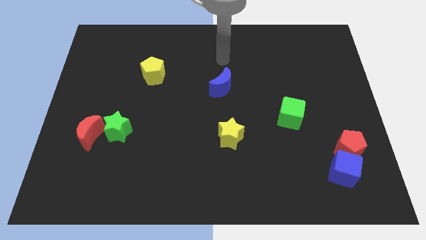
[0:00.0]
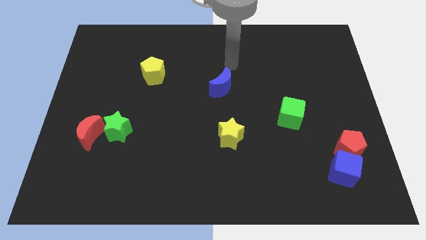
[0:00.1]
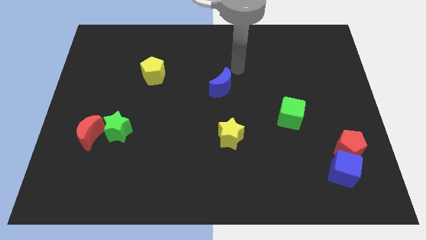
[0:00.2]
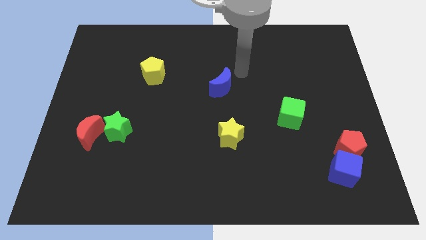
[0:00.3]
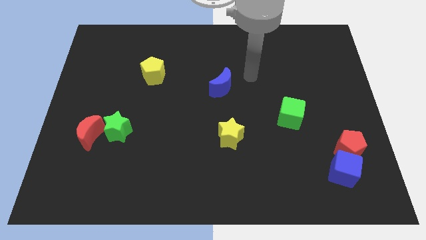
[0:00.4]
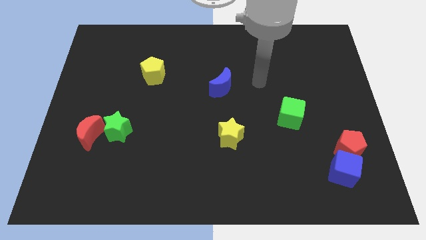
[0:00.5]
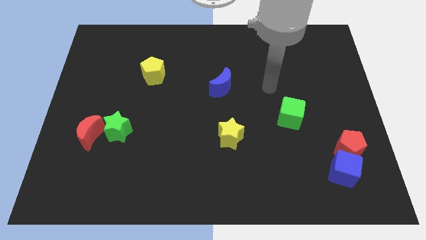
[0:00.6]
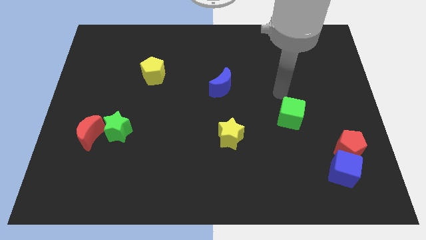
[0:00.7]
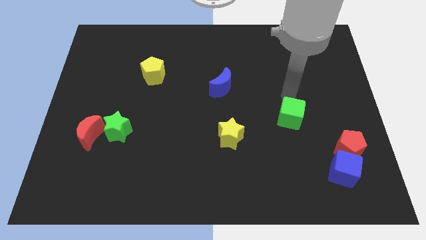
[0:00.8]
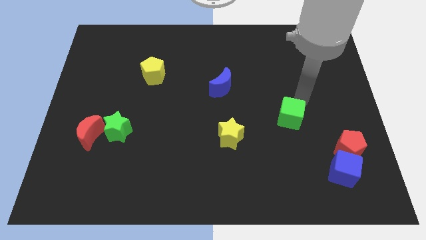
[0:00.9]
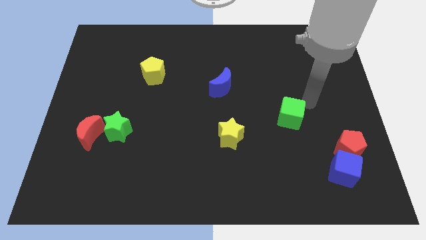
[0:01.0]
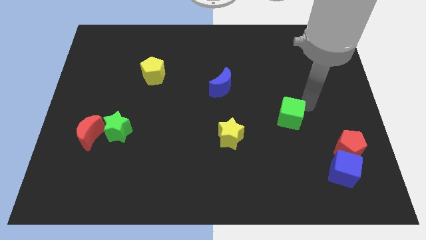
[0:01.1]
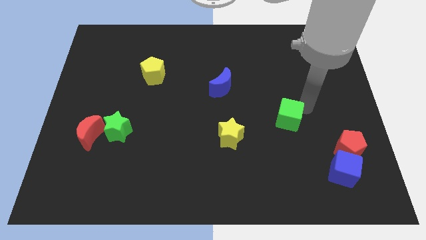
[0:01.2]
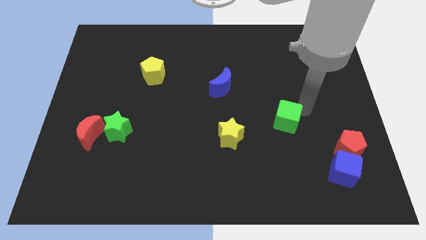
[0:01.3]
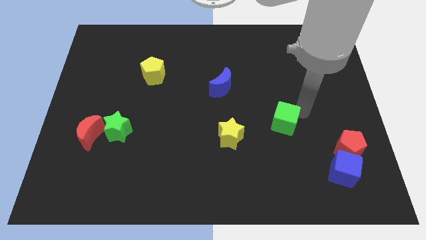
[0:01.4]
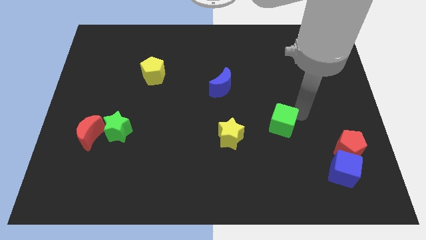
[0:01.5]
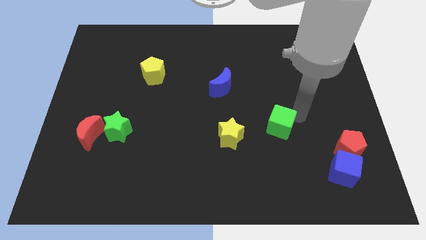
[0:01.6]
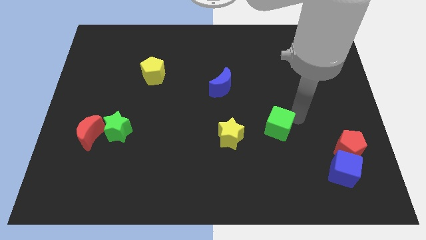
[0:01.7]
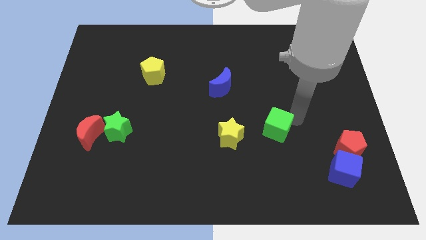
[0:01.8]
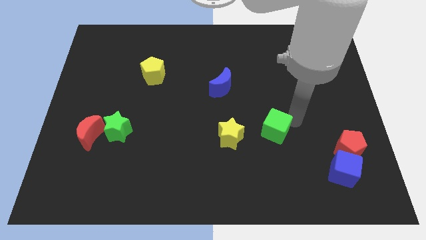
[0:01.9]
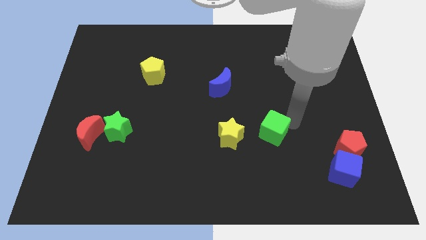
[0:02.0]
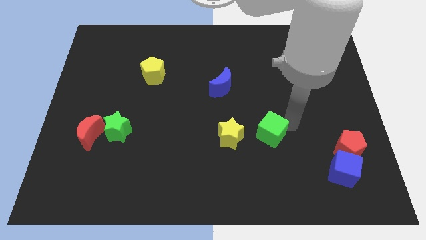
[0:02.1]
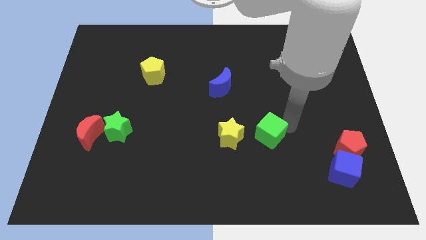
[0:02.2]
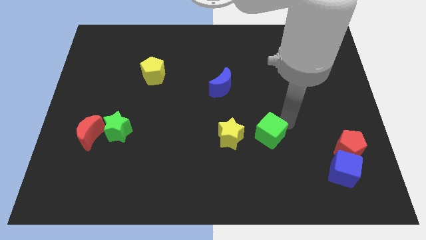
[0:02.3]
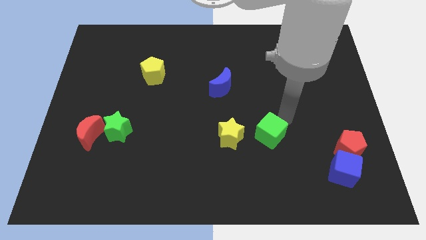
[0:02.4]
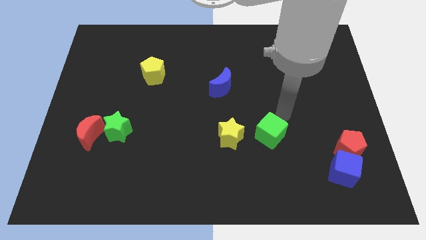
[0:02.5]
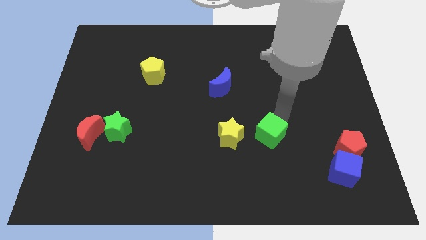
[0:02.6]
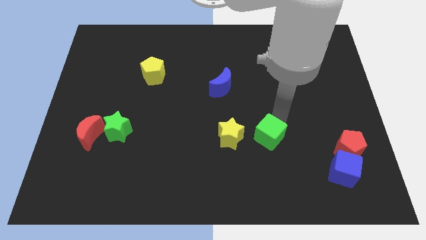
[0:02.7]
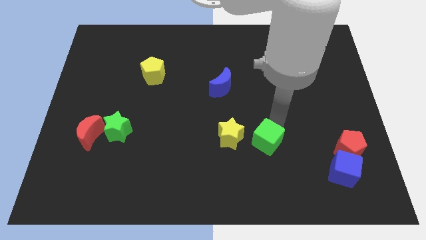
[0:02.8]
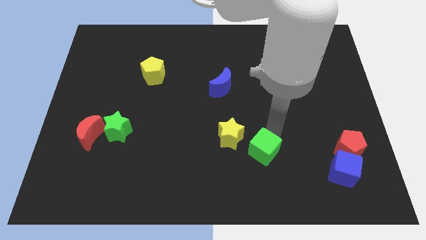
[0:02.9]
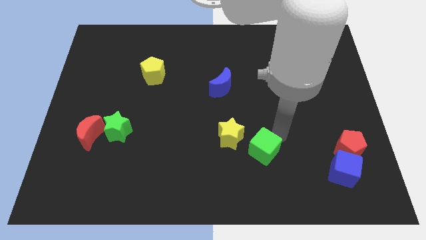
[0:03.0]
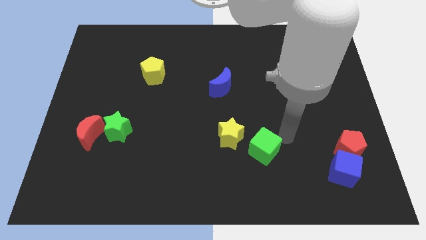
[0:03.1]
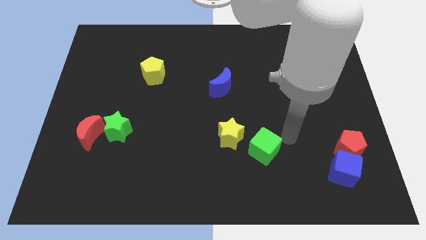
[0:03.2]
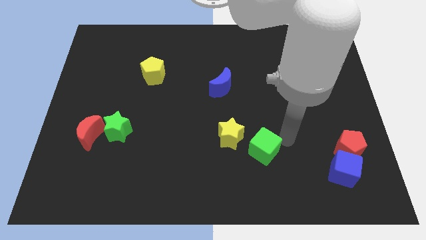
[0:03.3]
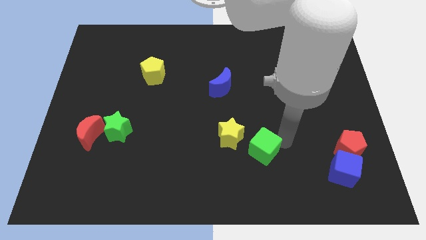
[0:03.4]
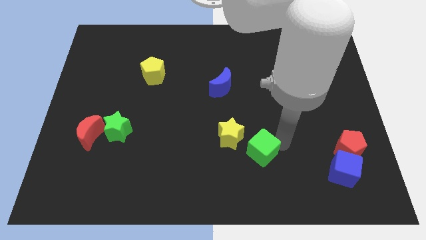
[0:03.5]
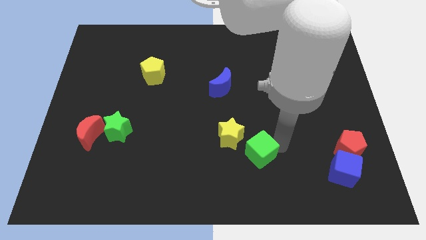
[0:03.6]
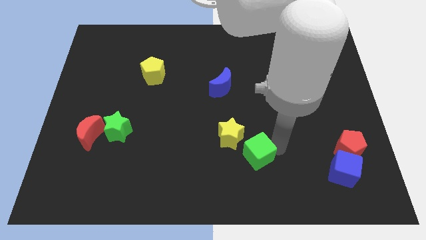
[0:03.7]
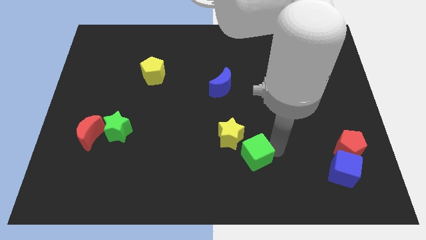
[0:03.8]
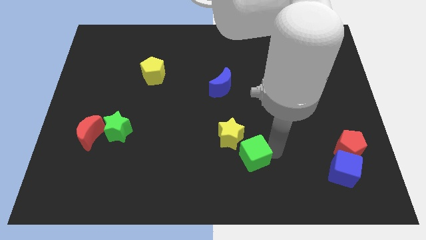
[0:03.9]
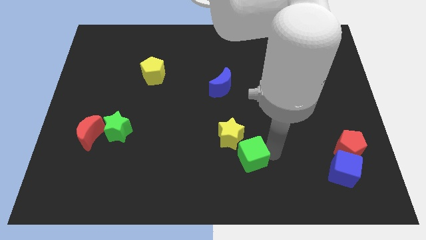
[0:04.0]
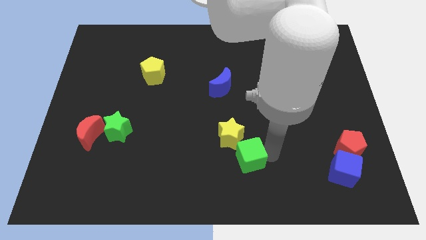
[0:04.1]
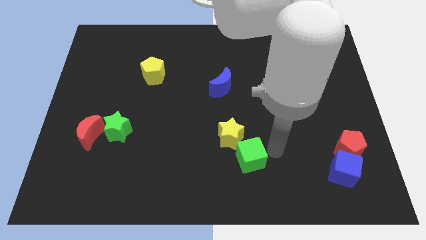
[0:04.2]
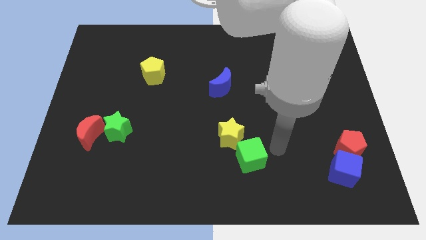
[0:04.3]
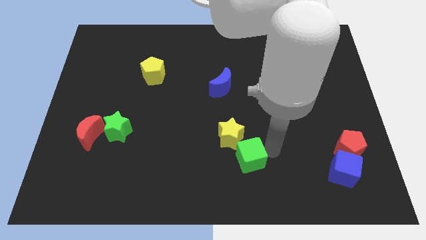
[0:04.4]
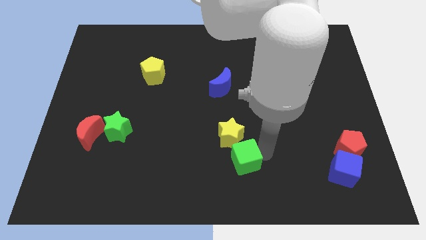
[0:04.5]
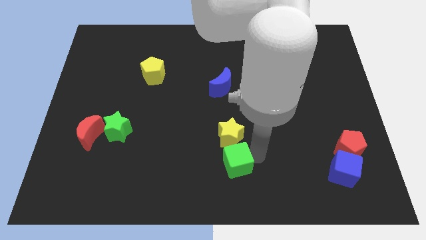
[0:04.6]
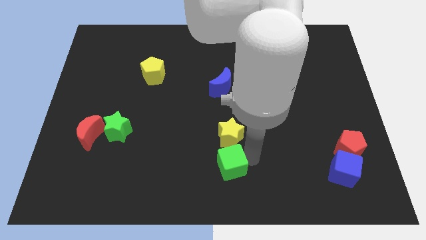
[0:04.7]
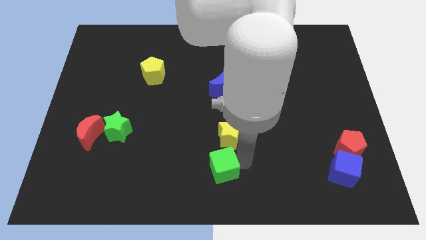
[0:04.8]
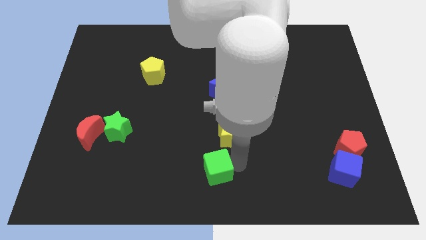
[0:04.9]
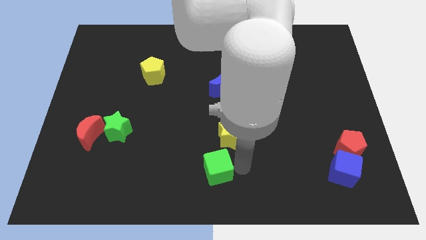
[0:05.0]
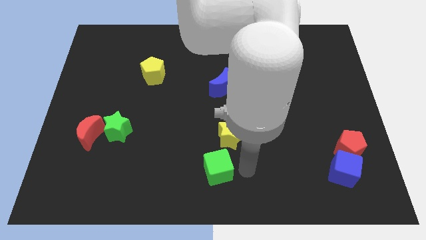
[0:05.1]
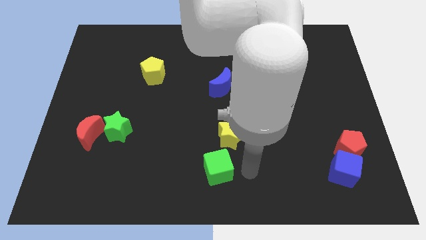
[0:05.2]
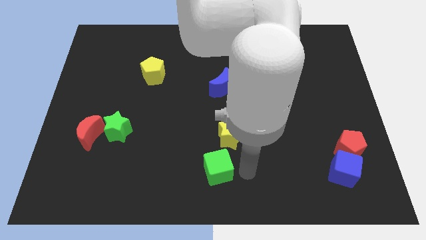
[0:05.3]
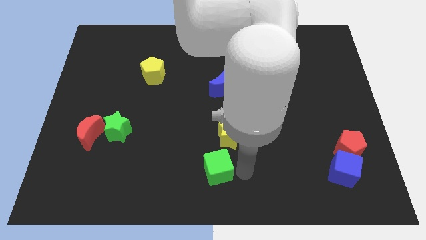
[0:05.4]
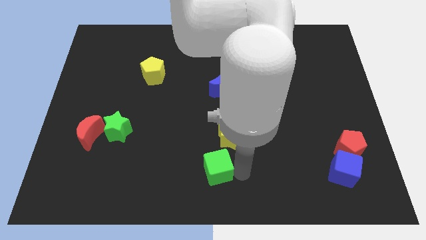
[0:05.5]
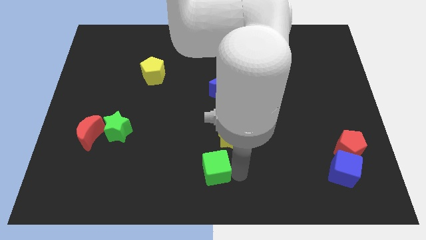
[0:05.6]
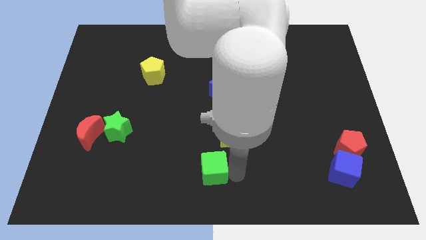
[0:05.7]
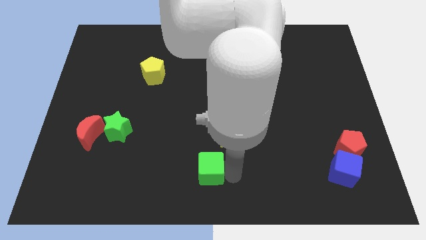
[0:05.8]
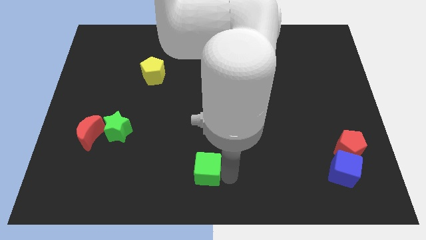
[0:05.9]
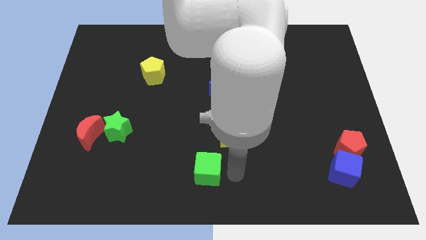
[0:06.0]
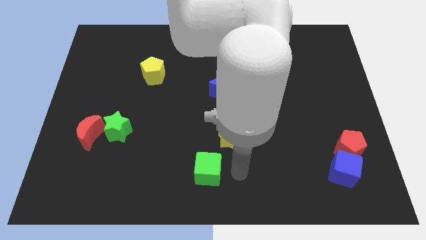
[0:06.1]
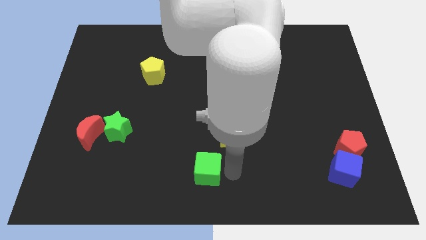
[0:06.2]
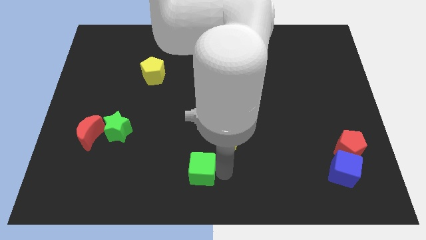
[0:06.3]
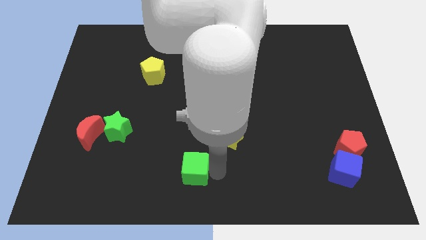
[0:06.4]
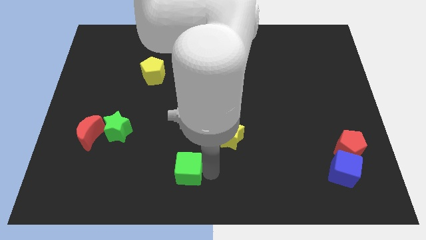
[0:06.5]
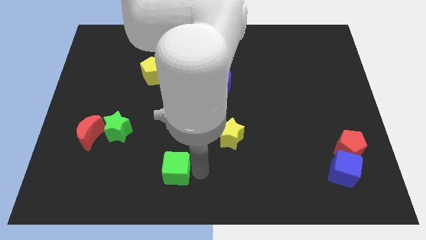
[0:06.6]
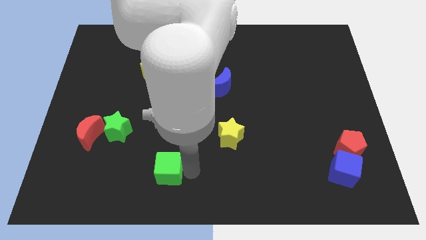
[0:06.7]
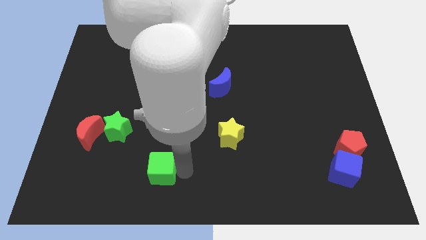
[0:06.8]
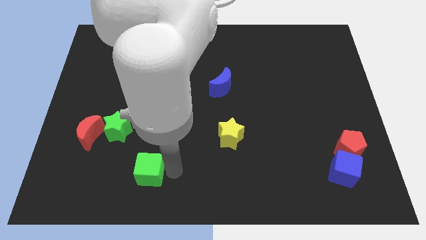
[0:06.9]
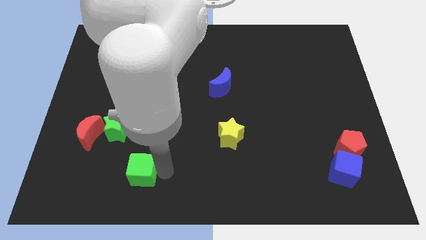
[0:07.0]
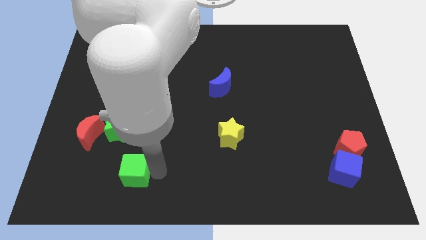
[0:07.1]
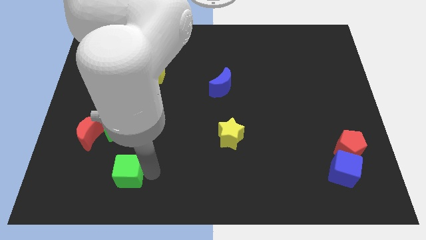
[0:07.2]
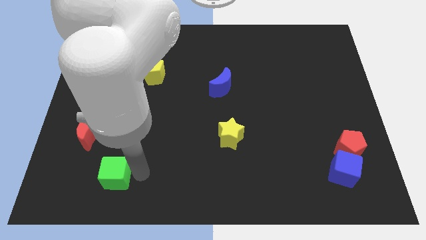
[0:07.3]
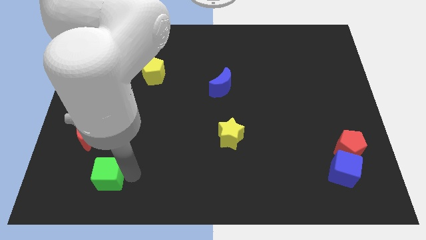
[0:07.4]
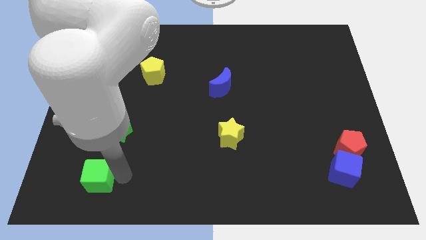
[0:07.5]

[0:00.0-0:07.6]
put the green cube to the bottom side of the red moon
